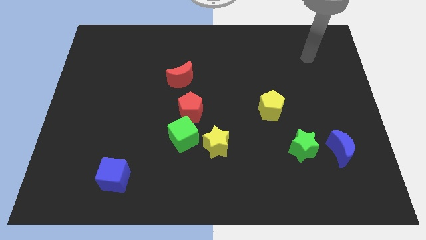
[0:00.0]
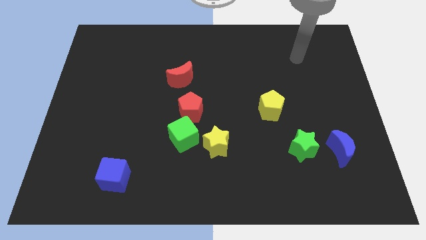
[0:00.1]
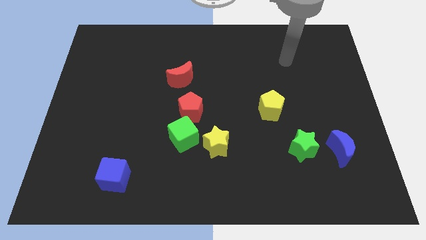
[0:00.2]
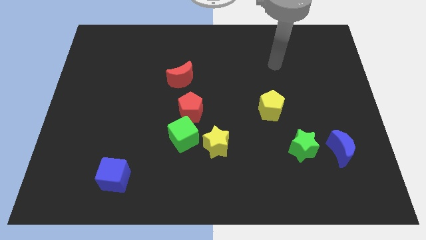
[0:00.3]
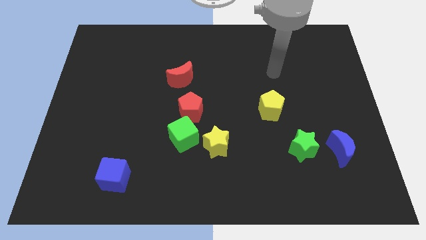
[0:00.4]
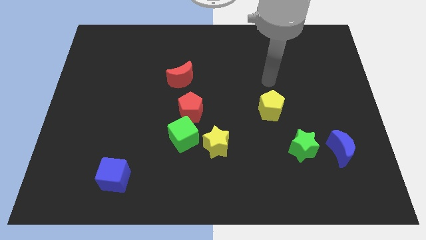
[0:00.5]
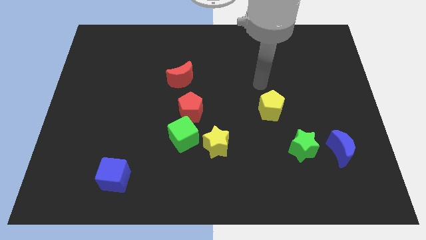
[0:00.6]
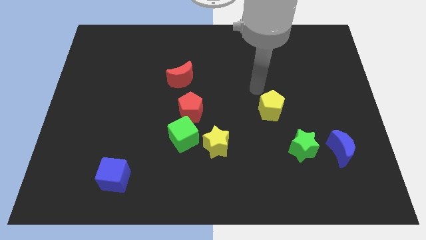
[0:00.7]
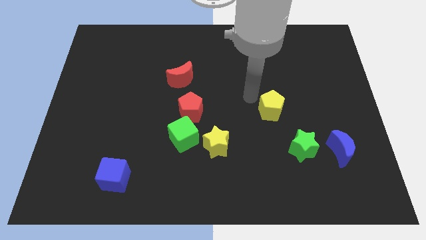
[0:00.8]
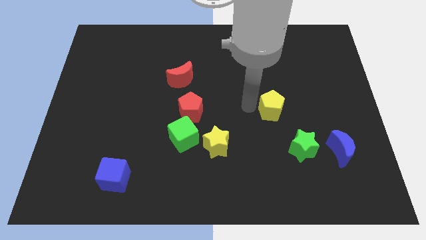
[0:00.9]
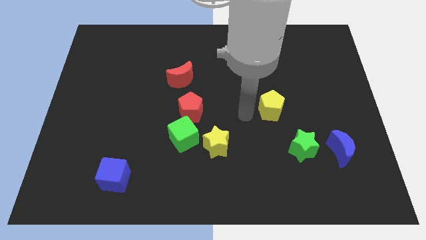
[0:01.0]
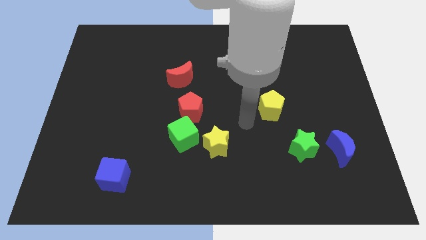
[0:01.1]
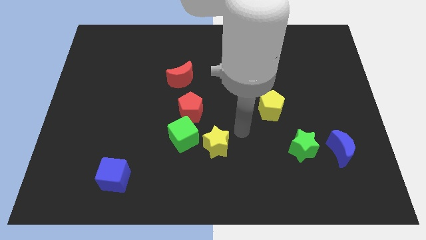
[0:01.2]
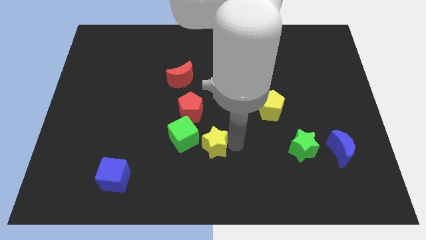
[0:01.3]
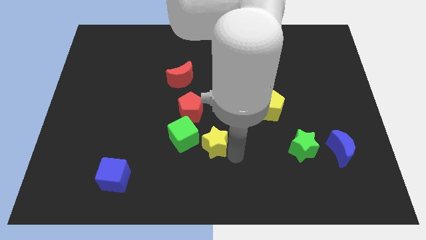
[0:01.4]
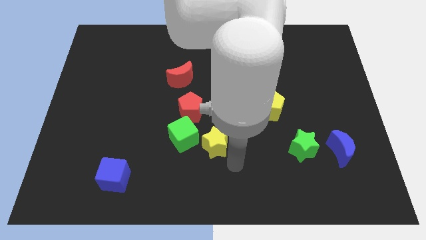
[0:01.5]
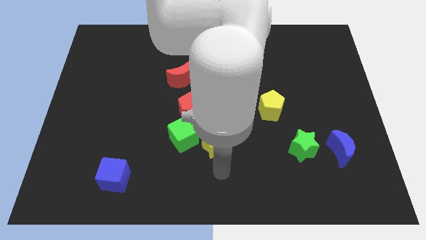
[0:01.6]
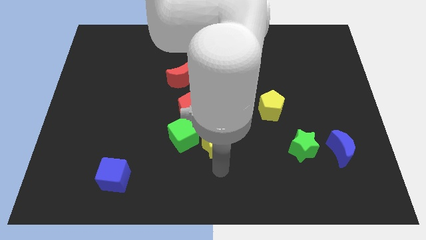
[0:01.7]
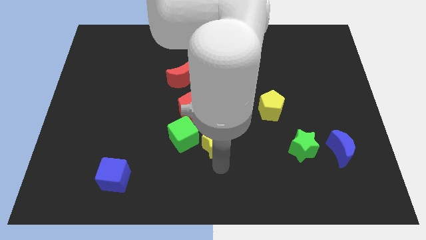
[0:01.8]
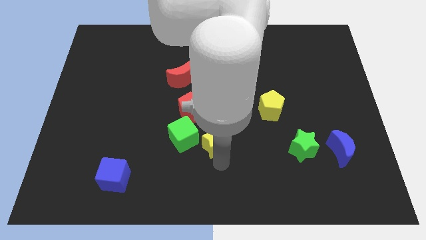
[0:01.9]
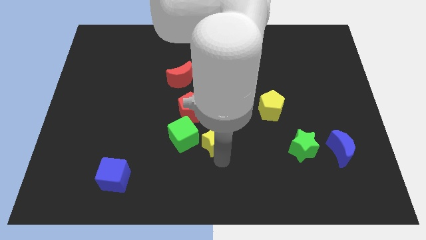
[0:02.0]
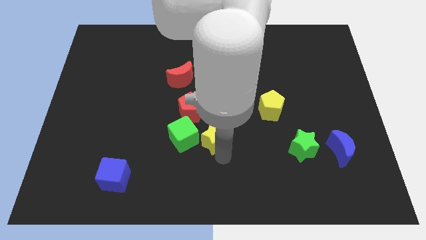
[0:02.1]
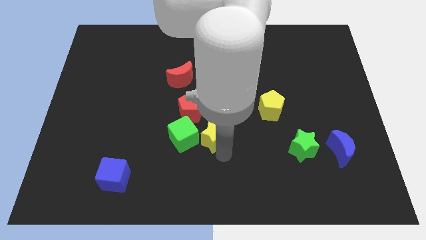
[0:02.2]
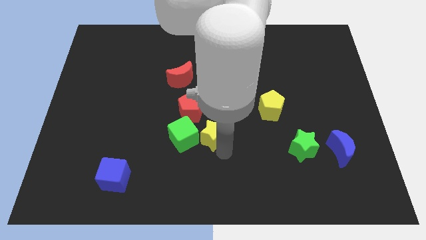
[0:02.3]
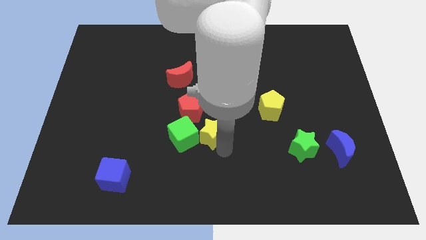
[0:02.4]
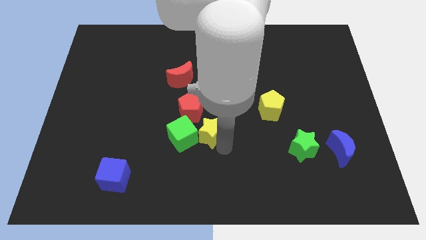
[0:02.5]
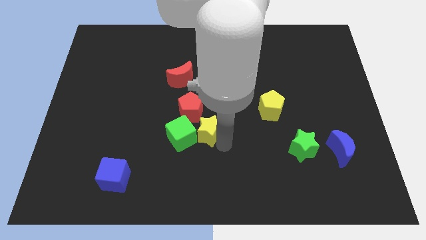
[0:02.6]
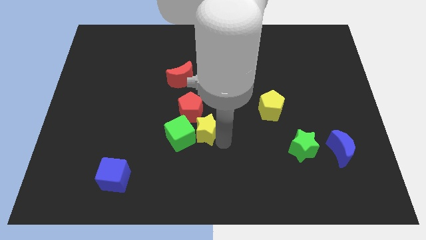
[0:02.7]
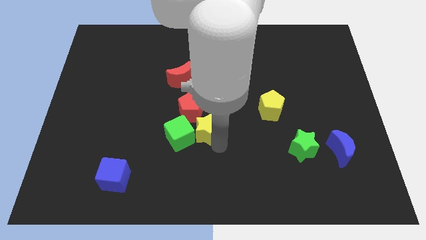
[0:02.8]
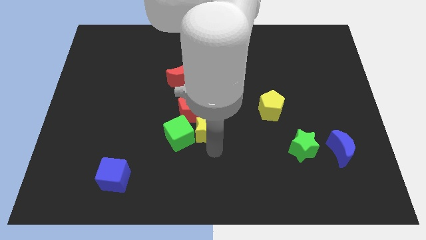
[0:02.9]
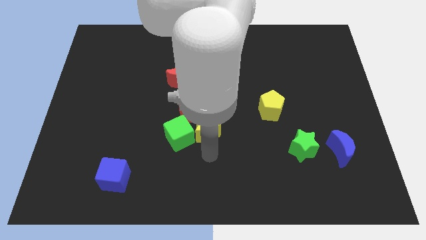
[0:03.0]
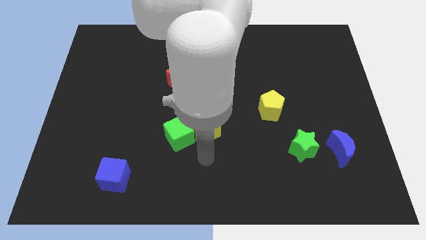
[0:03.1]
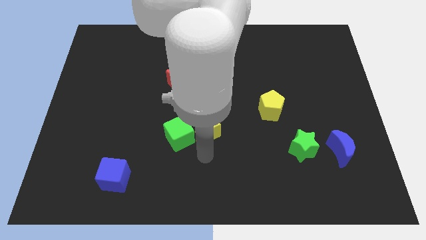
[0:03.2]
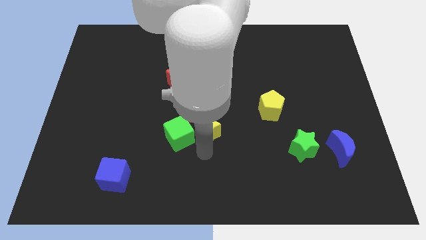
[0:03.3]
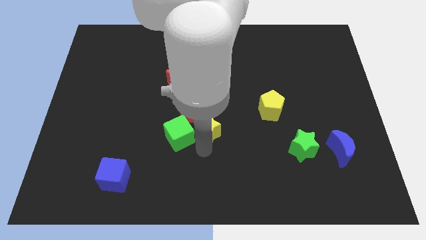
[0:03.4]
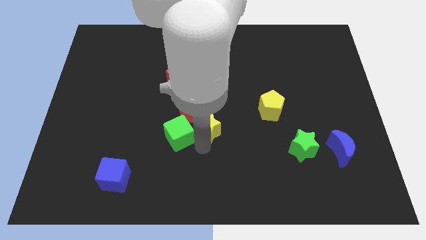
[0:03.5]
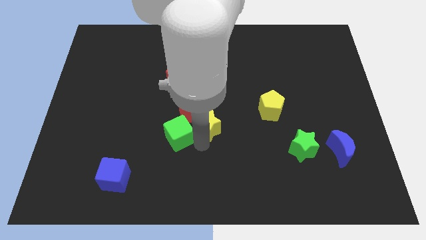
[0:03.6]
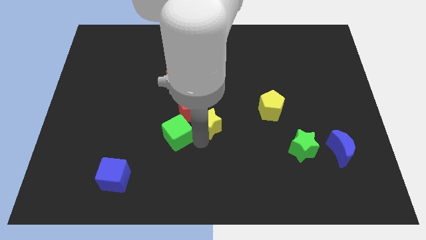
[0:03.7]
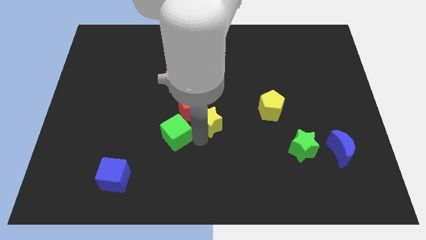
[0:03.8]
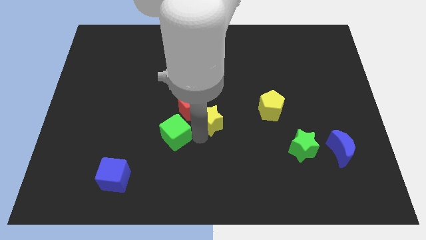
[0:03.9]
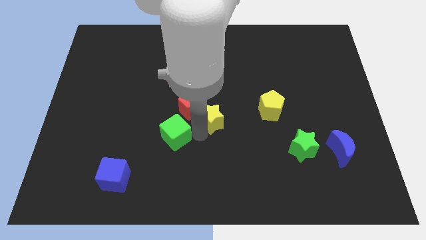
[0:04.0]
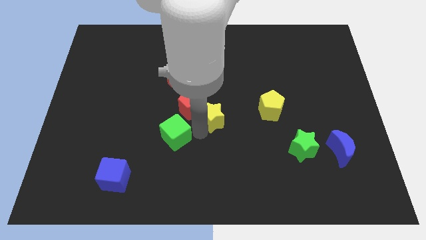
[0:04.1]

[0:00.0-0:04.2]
push the yellow star a little bit up

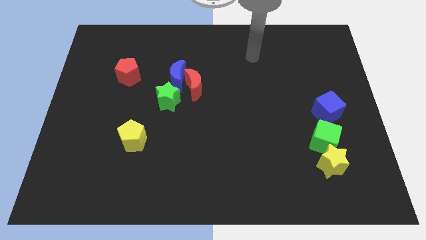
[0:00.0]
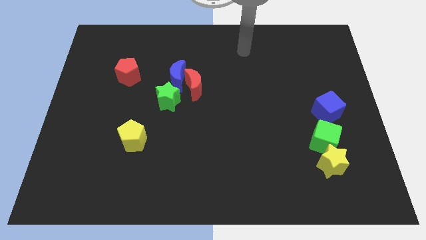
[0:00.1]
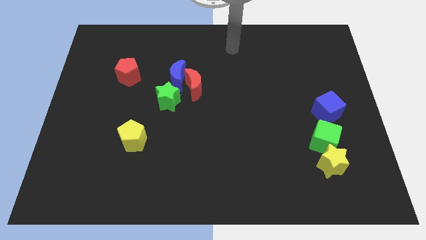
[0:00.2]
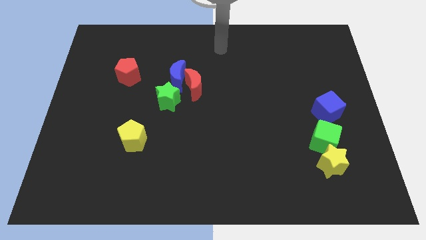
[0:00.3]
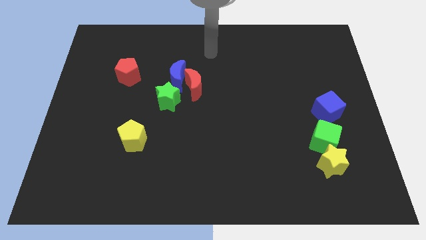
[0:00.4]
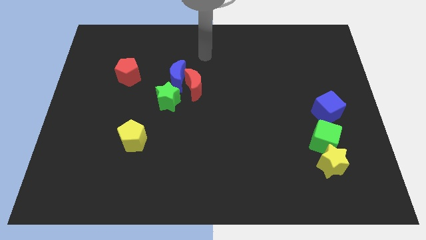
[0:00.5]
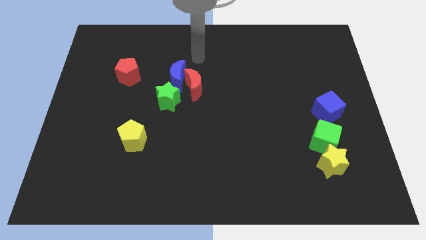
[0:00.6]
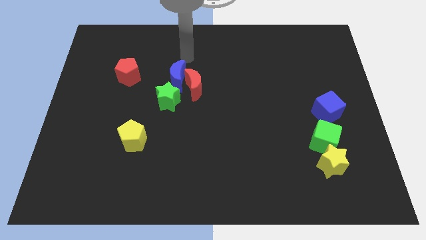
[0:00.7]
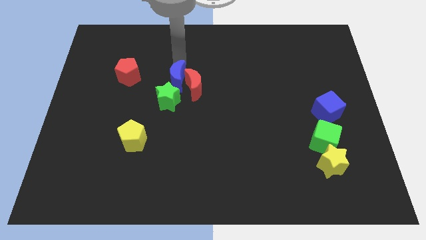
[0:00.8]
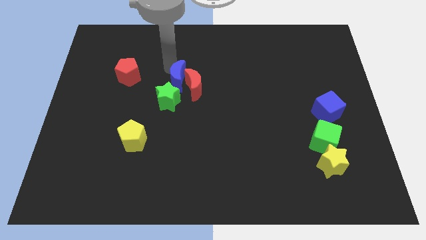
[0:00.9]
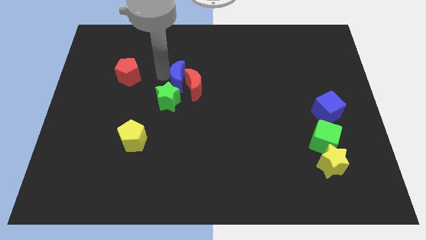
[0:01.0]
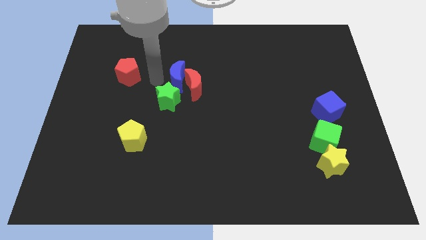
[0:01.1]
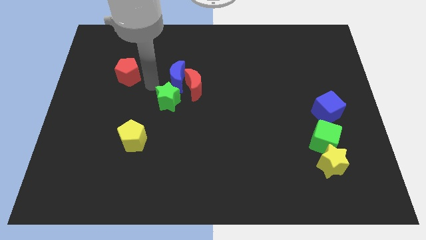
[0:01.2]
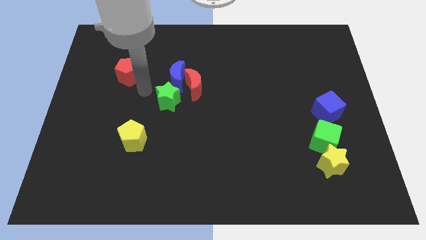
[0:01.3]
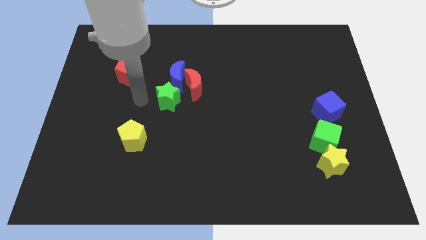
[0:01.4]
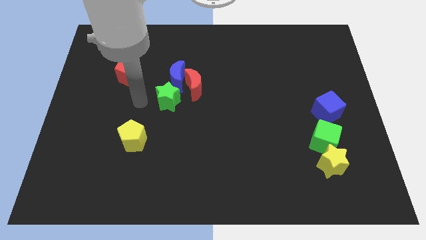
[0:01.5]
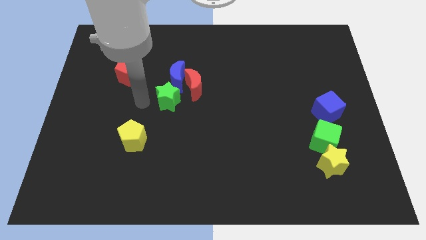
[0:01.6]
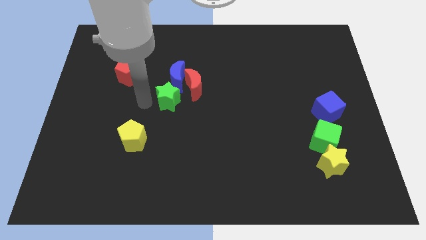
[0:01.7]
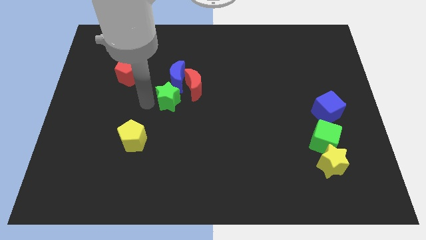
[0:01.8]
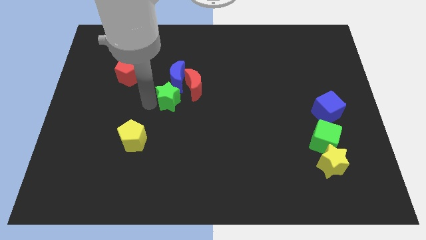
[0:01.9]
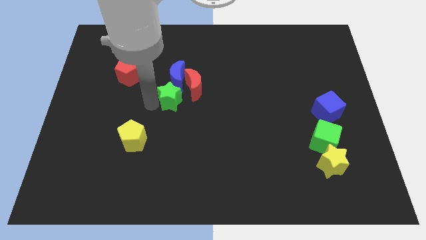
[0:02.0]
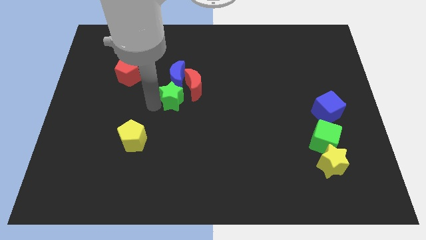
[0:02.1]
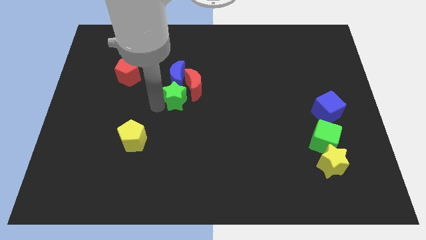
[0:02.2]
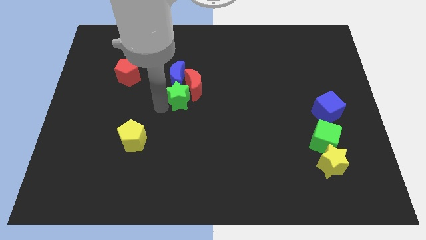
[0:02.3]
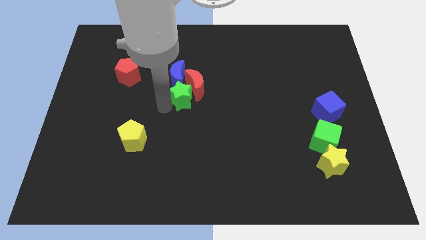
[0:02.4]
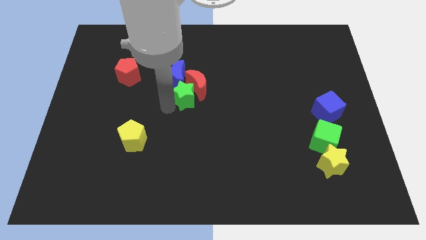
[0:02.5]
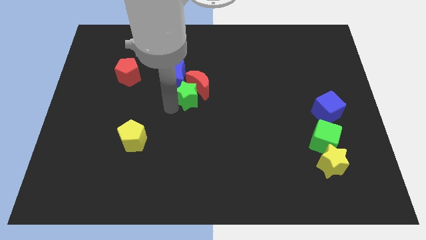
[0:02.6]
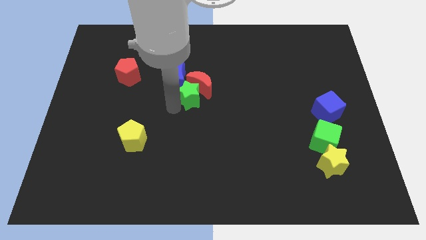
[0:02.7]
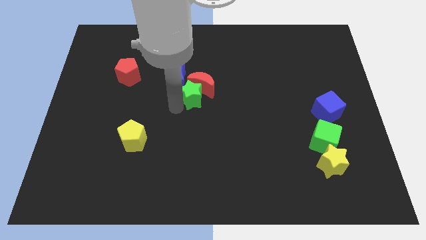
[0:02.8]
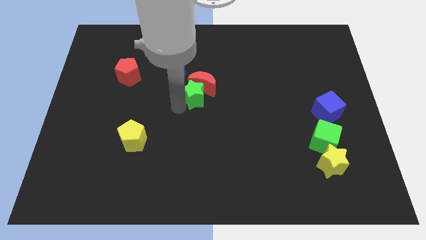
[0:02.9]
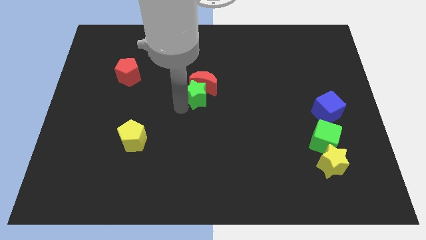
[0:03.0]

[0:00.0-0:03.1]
slightly slide the green star to the right

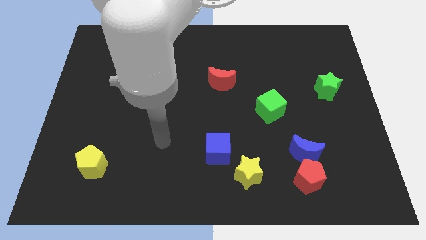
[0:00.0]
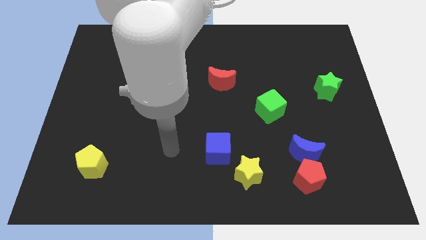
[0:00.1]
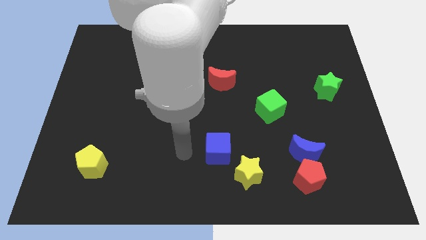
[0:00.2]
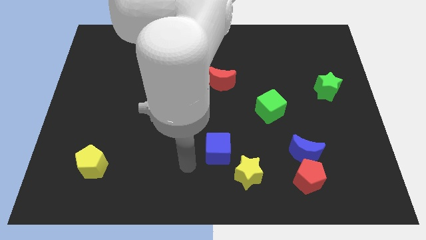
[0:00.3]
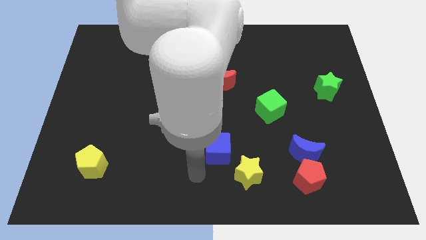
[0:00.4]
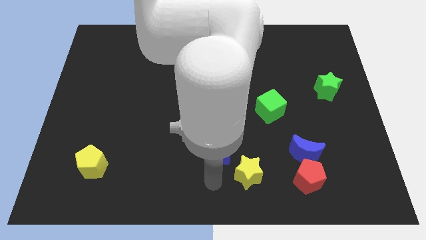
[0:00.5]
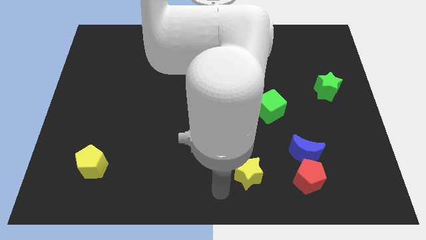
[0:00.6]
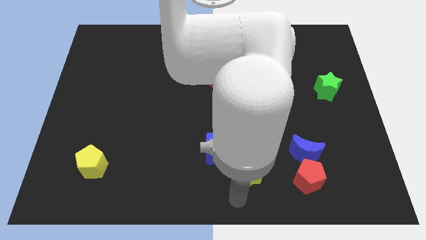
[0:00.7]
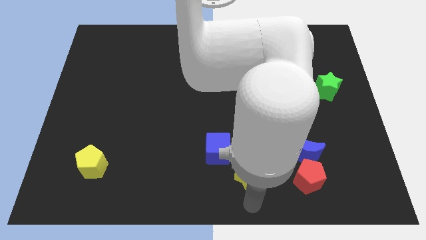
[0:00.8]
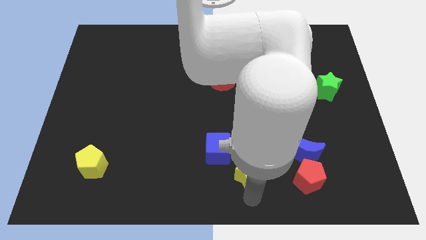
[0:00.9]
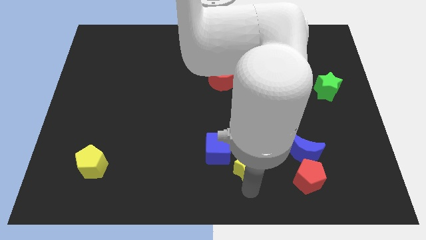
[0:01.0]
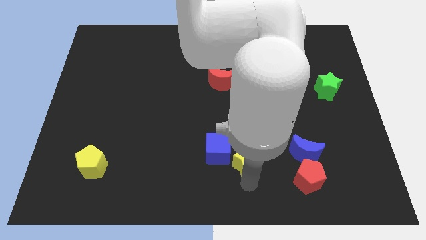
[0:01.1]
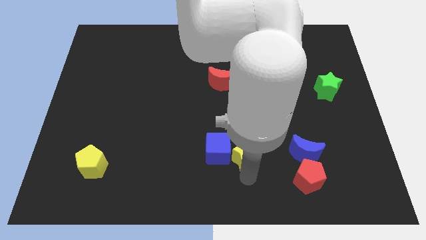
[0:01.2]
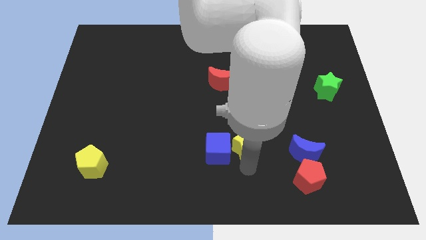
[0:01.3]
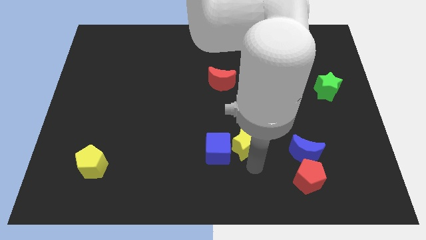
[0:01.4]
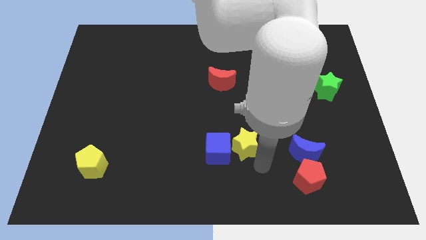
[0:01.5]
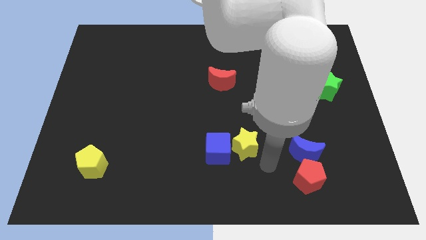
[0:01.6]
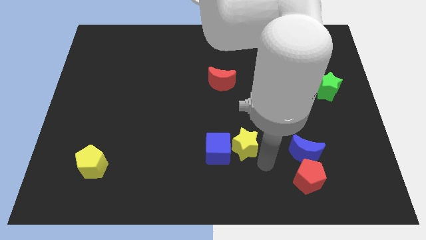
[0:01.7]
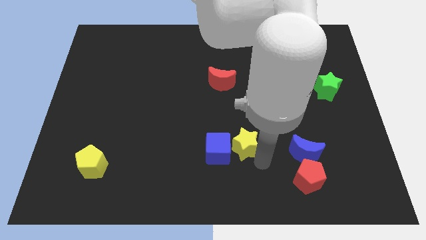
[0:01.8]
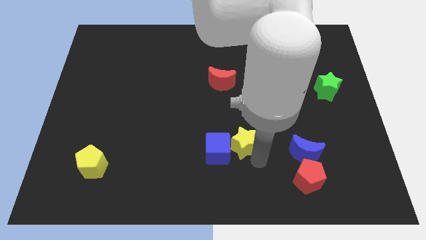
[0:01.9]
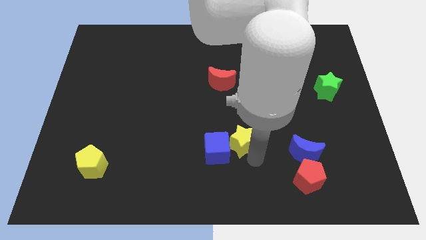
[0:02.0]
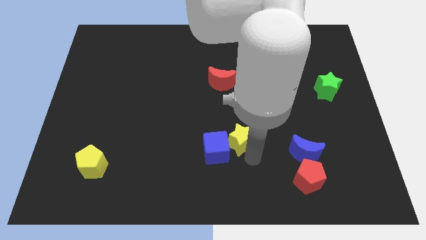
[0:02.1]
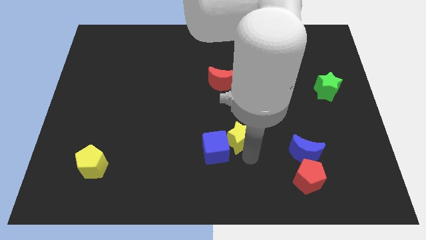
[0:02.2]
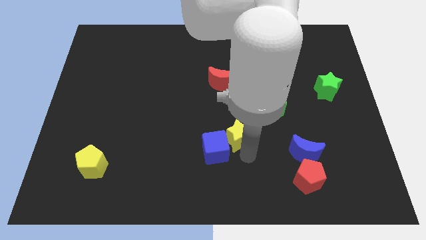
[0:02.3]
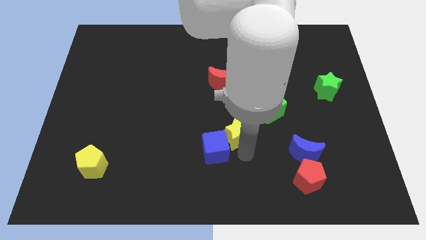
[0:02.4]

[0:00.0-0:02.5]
slightly push the yellow star up and to the left diagonally
